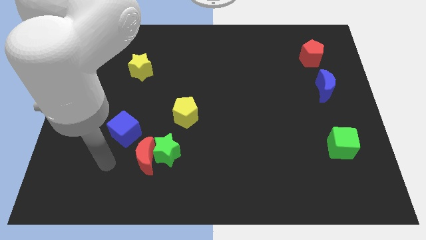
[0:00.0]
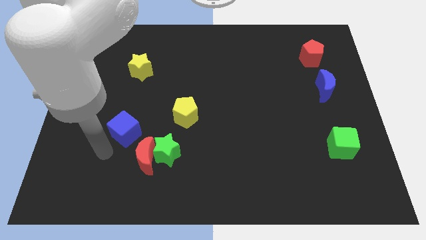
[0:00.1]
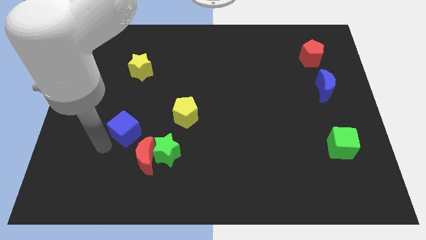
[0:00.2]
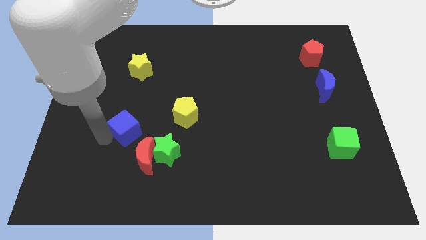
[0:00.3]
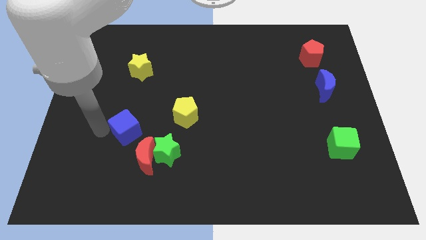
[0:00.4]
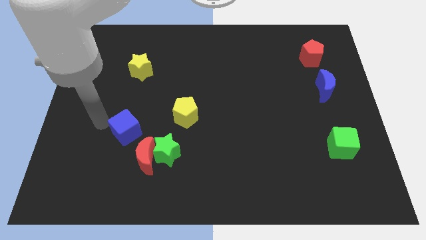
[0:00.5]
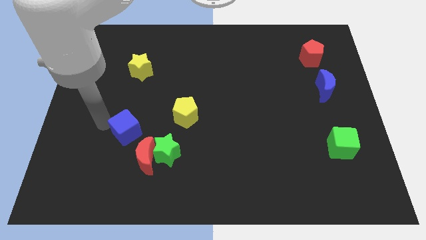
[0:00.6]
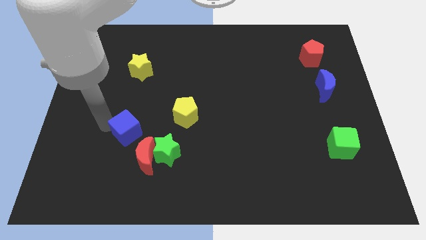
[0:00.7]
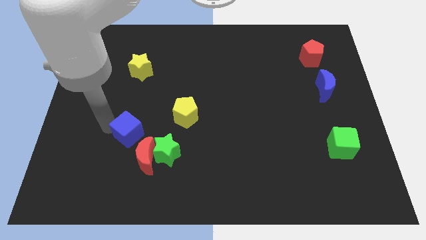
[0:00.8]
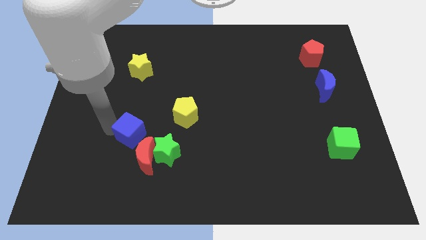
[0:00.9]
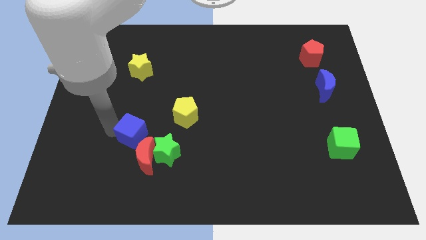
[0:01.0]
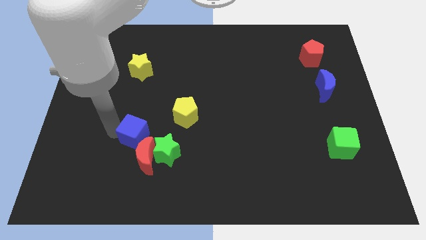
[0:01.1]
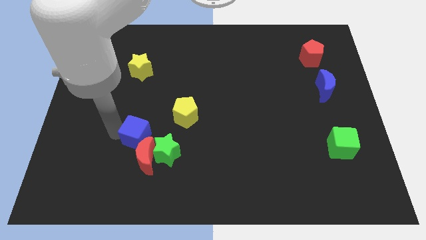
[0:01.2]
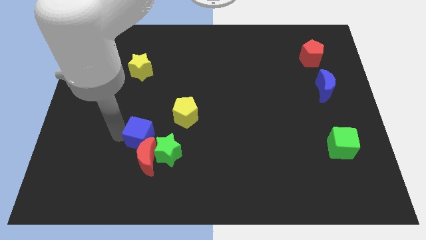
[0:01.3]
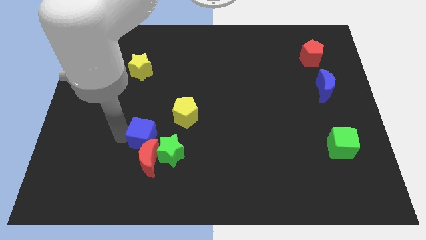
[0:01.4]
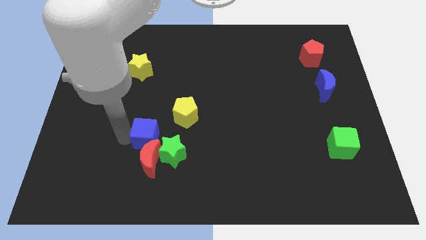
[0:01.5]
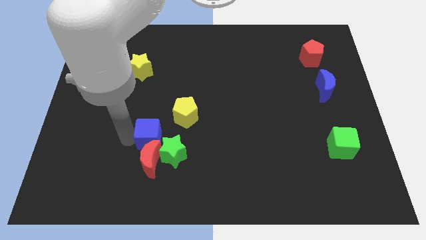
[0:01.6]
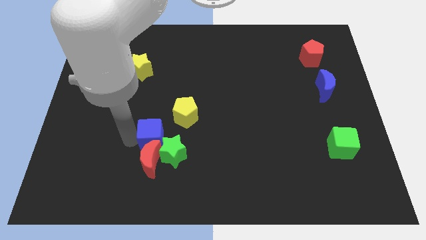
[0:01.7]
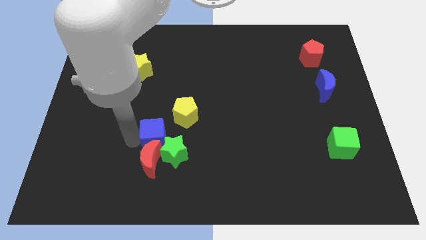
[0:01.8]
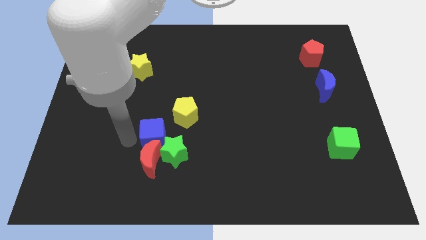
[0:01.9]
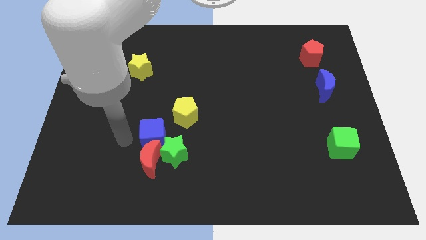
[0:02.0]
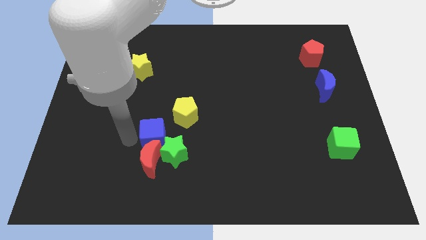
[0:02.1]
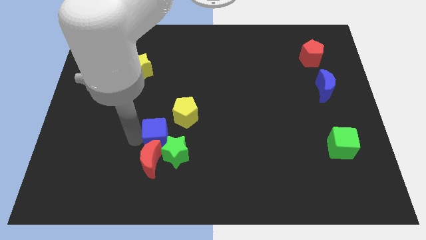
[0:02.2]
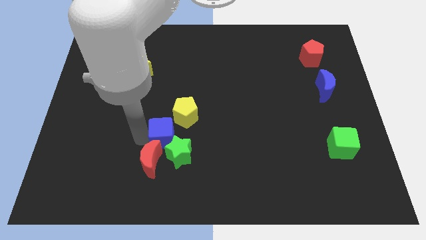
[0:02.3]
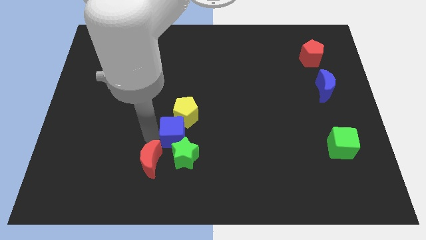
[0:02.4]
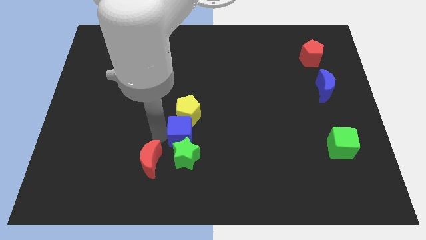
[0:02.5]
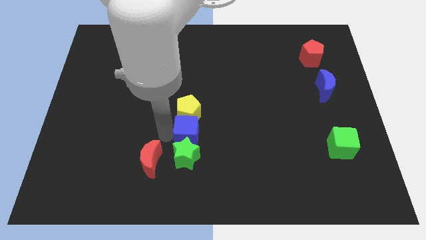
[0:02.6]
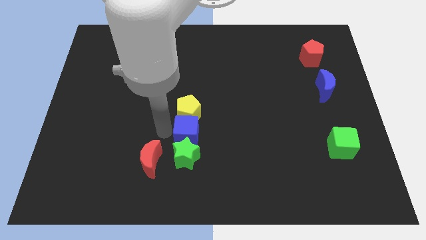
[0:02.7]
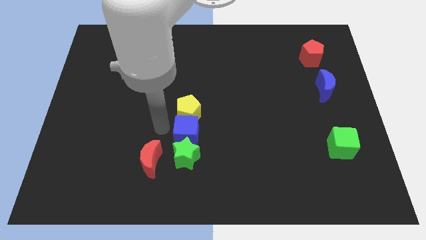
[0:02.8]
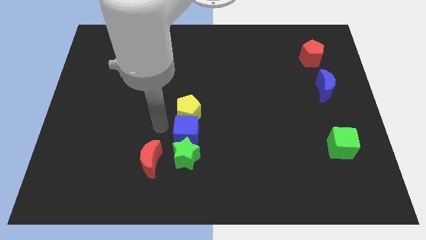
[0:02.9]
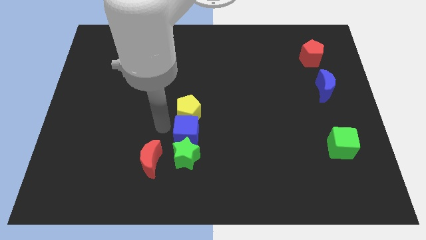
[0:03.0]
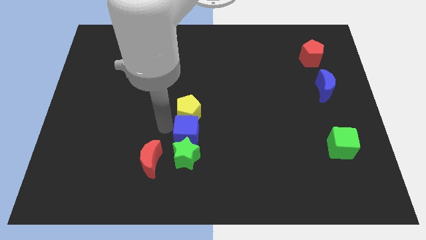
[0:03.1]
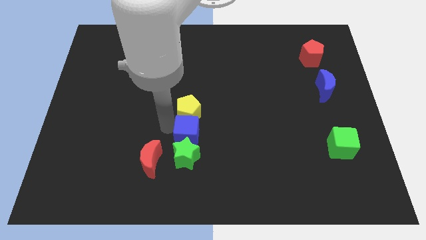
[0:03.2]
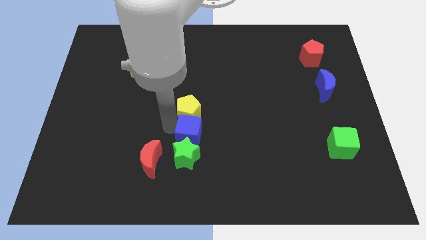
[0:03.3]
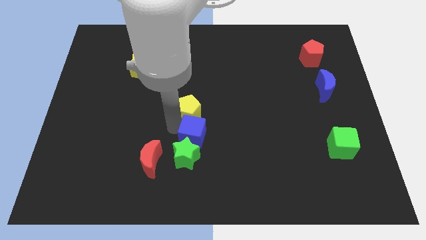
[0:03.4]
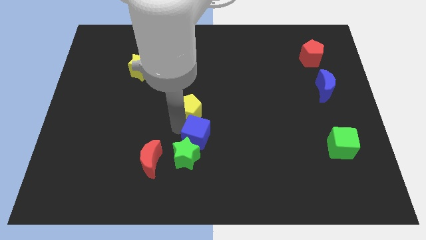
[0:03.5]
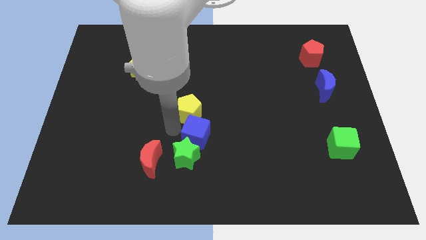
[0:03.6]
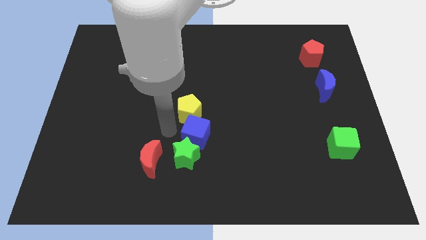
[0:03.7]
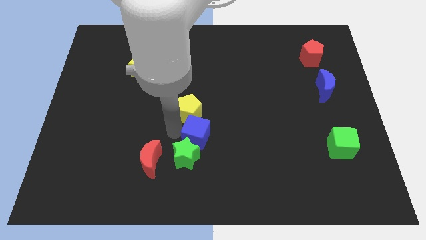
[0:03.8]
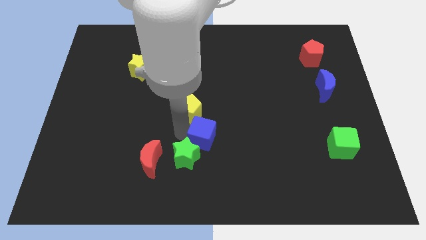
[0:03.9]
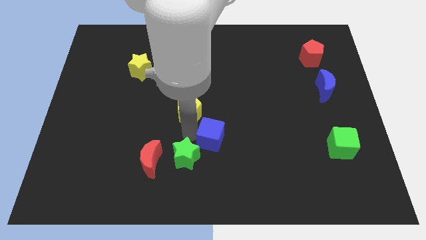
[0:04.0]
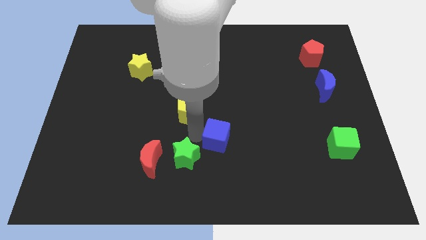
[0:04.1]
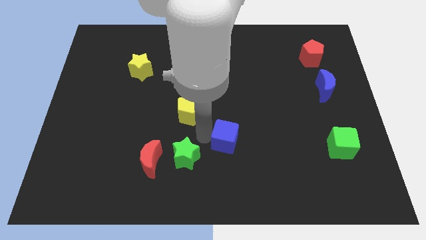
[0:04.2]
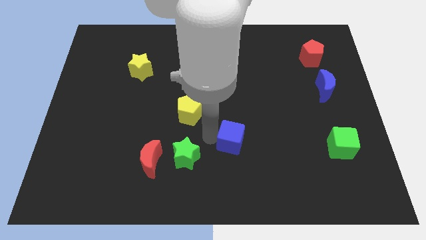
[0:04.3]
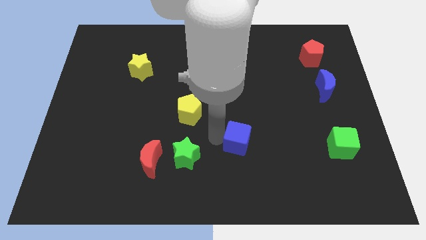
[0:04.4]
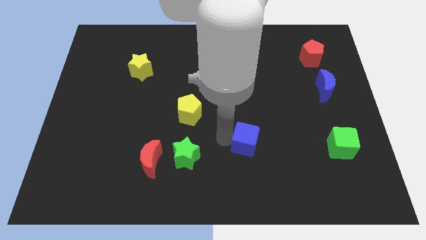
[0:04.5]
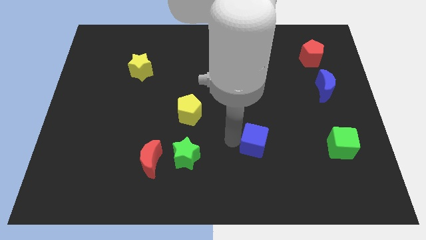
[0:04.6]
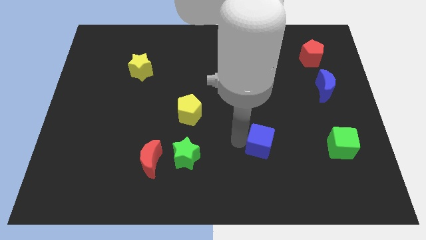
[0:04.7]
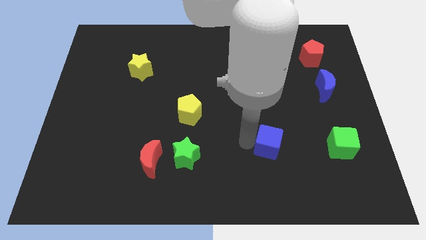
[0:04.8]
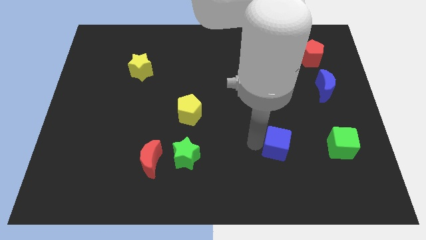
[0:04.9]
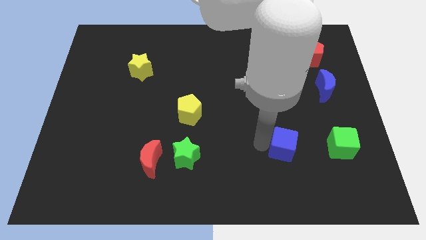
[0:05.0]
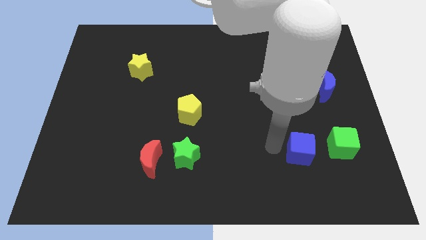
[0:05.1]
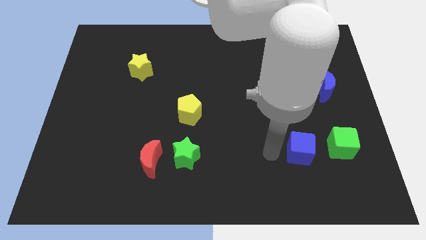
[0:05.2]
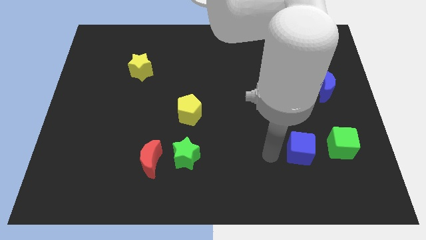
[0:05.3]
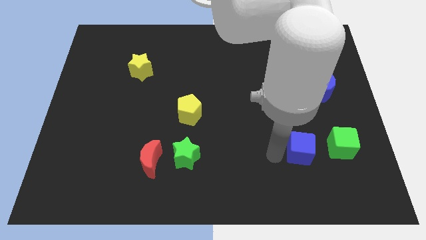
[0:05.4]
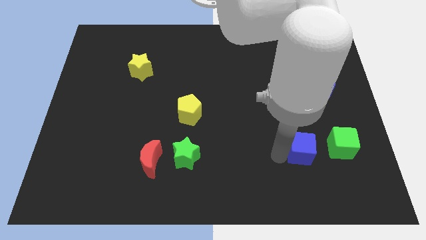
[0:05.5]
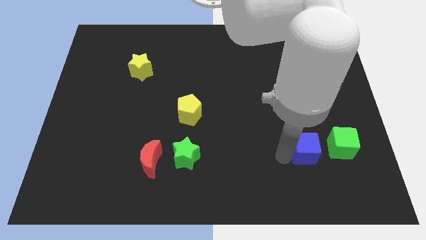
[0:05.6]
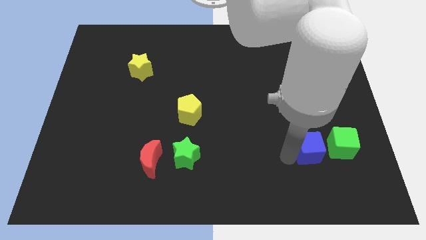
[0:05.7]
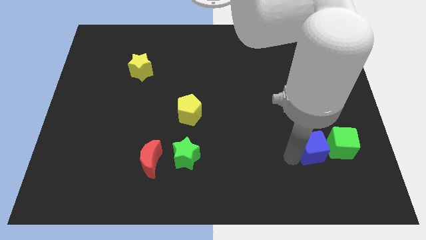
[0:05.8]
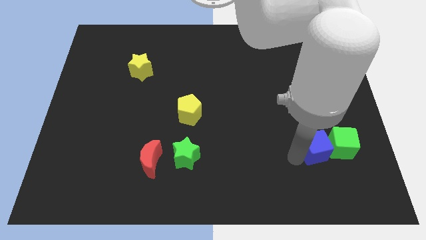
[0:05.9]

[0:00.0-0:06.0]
slide the blue cube to the green cube

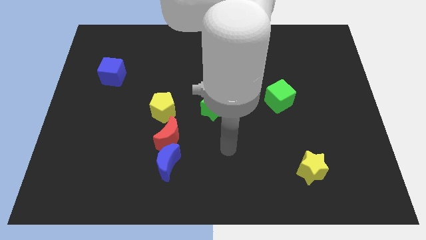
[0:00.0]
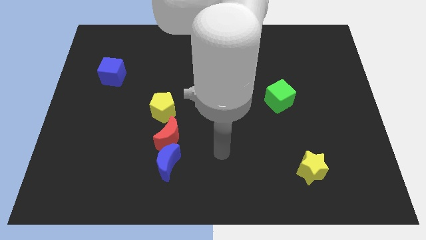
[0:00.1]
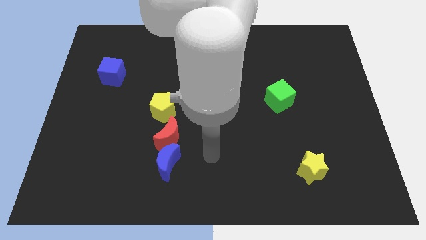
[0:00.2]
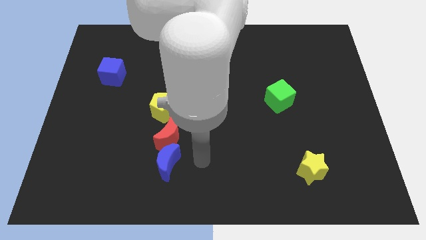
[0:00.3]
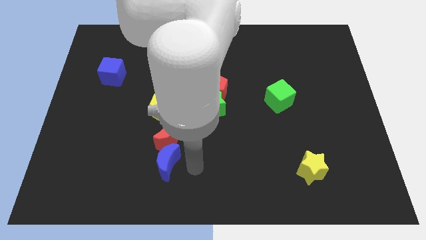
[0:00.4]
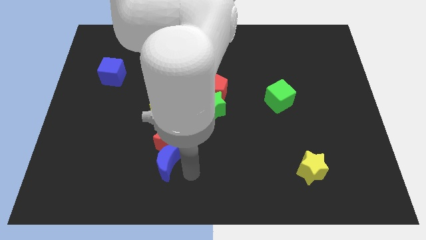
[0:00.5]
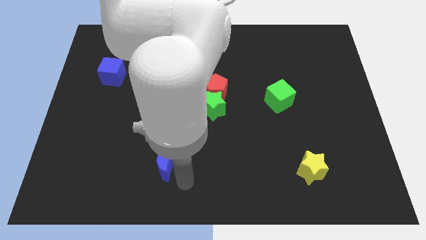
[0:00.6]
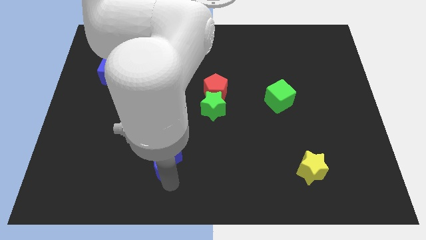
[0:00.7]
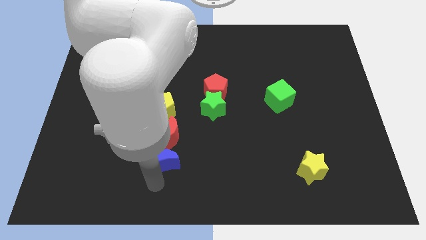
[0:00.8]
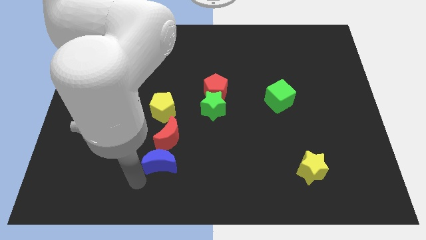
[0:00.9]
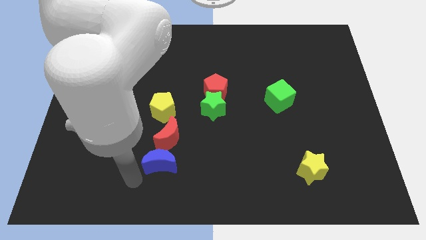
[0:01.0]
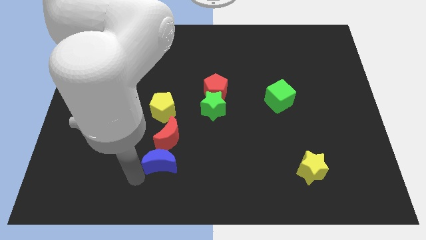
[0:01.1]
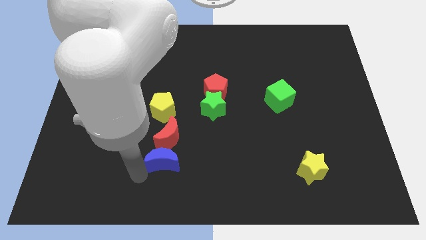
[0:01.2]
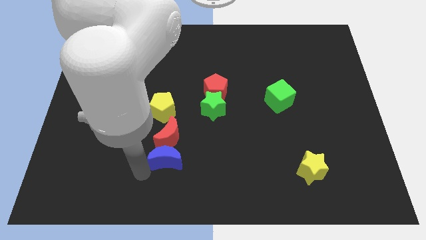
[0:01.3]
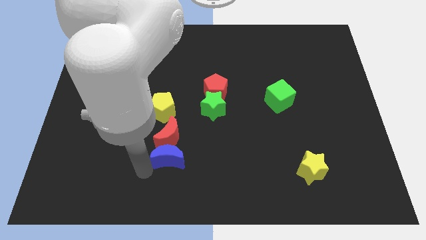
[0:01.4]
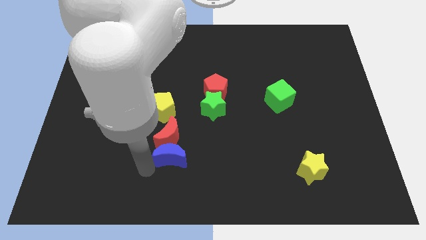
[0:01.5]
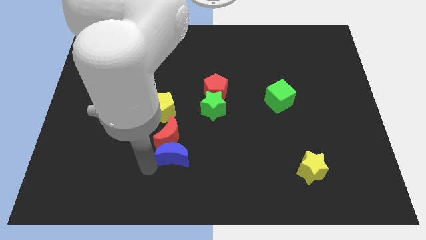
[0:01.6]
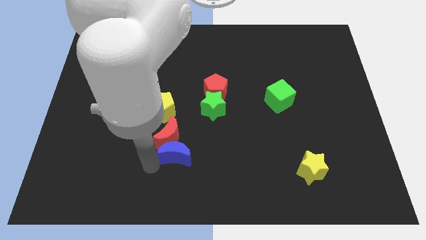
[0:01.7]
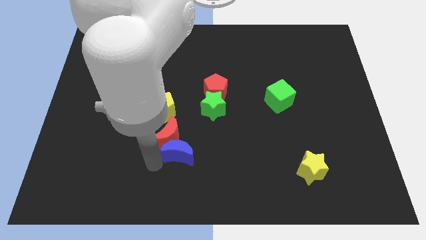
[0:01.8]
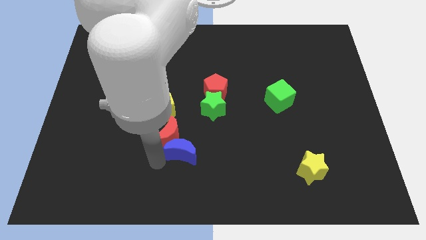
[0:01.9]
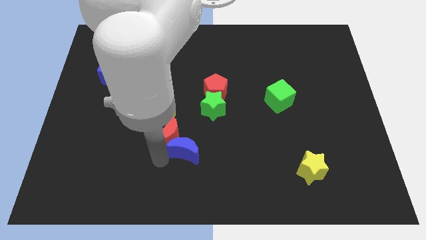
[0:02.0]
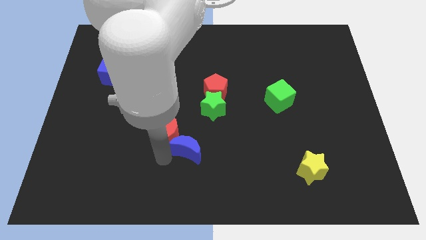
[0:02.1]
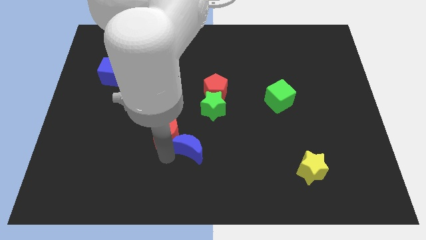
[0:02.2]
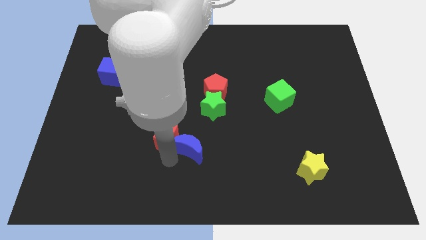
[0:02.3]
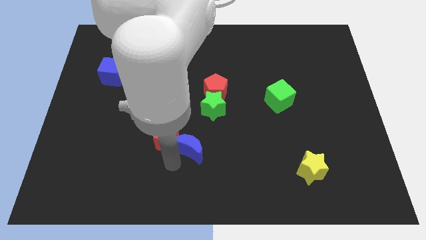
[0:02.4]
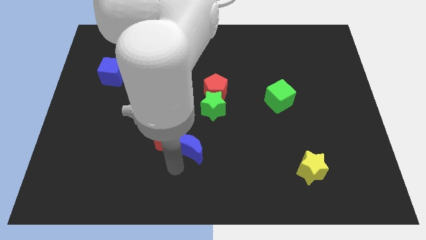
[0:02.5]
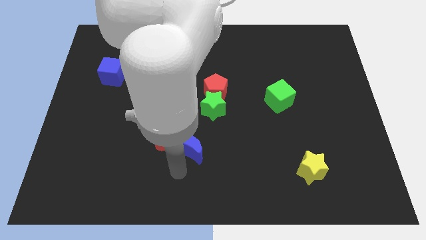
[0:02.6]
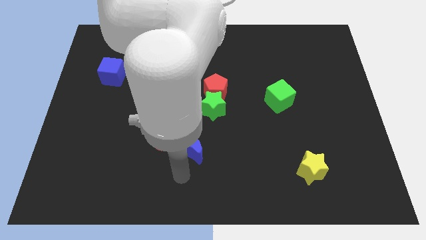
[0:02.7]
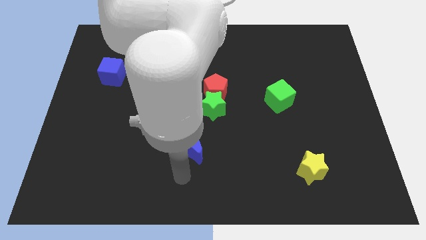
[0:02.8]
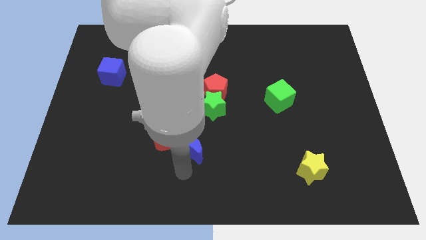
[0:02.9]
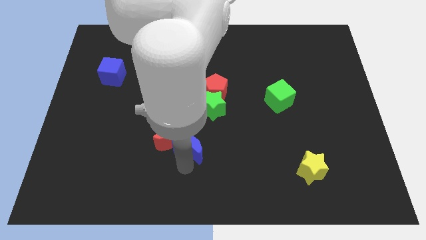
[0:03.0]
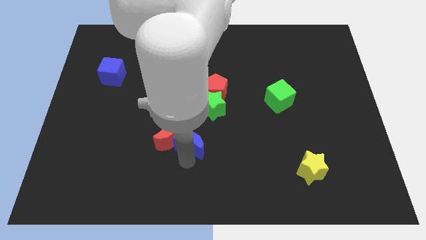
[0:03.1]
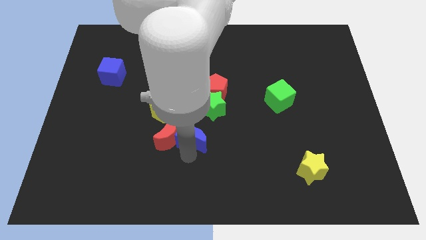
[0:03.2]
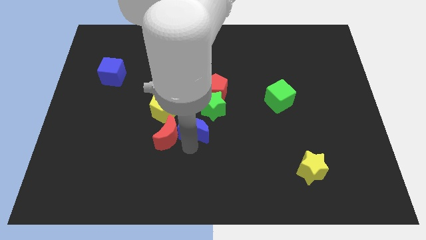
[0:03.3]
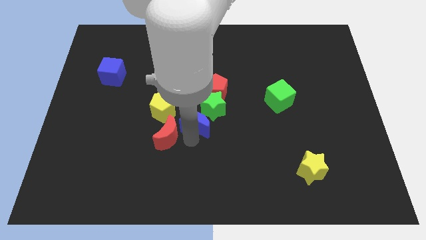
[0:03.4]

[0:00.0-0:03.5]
move the blue moon to the green star
